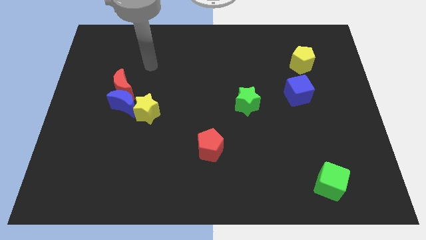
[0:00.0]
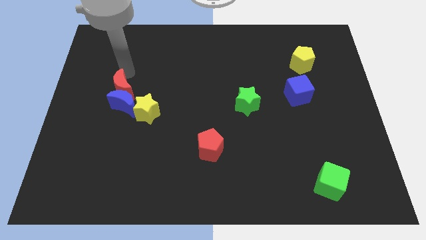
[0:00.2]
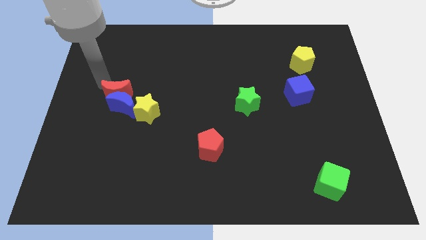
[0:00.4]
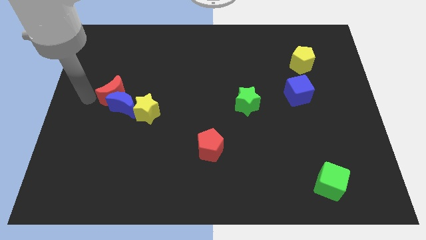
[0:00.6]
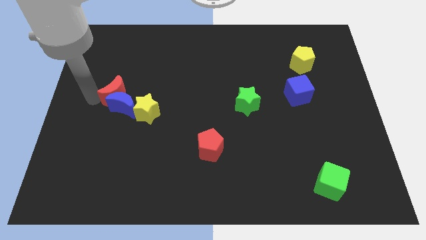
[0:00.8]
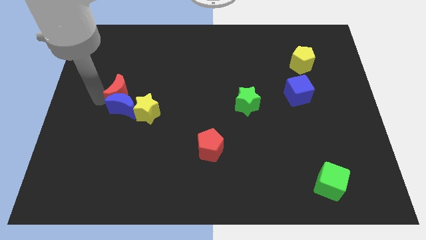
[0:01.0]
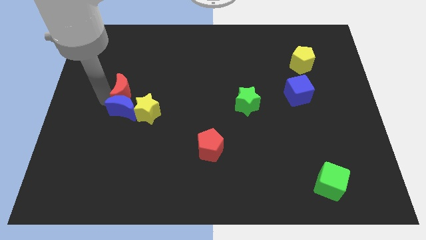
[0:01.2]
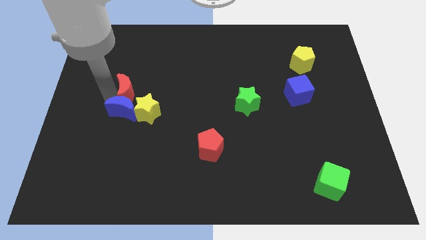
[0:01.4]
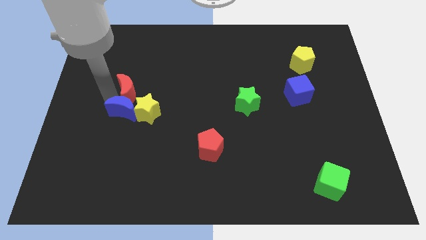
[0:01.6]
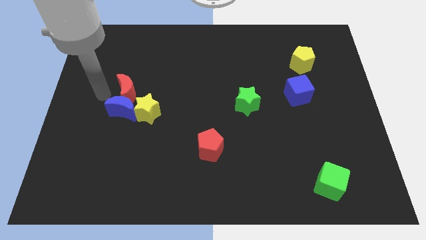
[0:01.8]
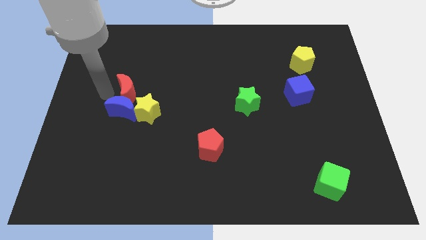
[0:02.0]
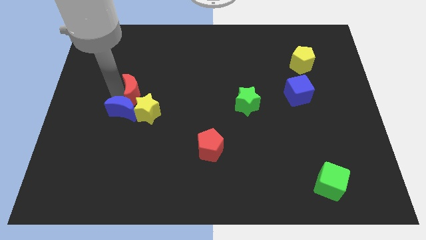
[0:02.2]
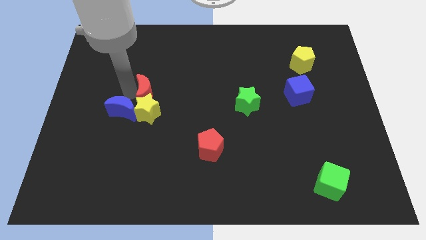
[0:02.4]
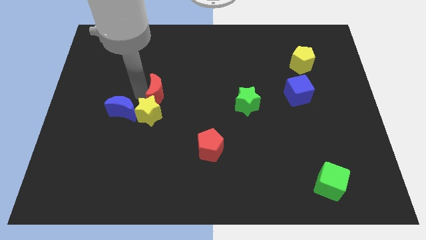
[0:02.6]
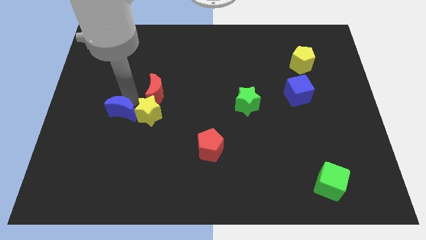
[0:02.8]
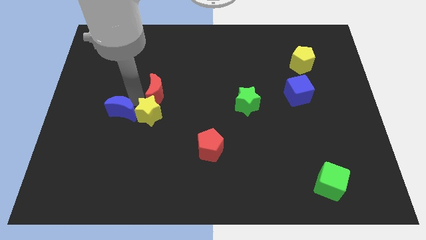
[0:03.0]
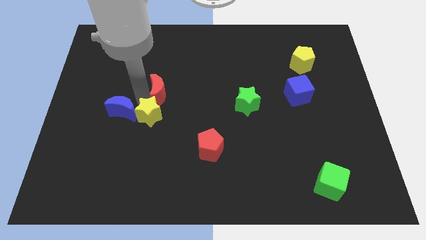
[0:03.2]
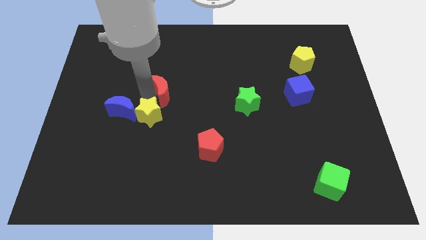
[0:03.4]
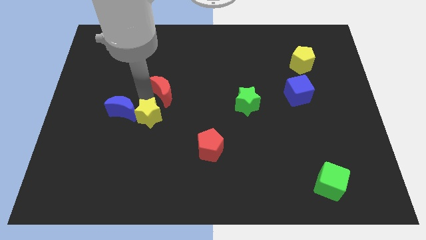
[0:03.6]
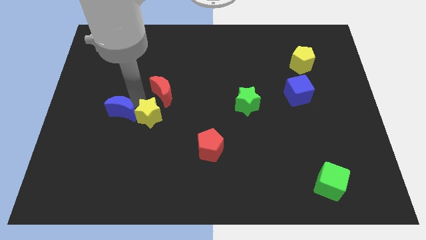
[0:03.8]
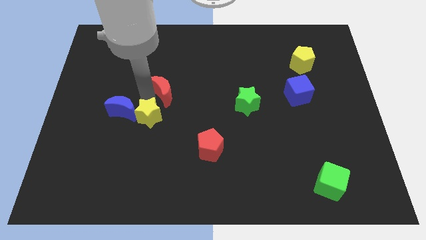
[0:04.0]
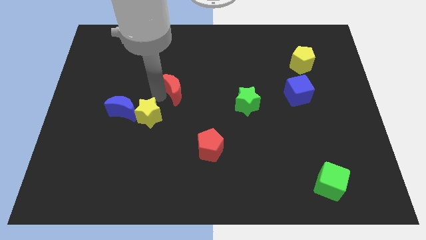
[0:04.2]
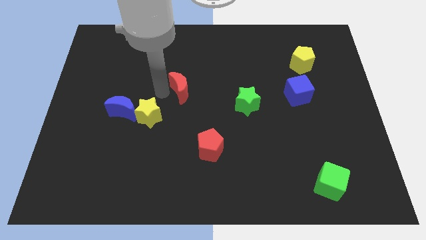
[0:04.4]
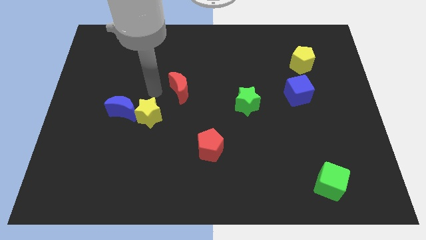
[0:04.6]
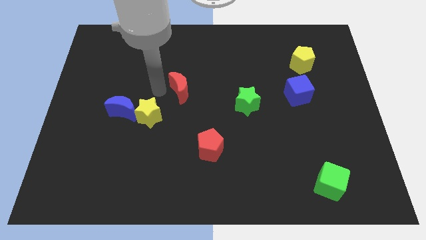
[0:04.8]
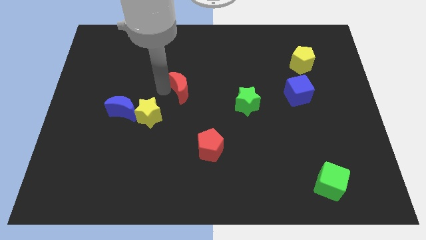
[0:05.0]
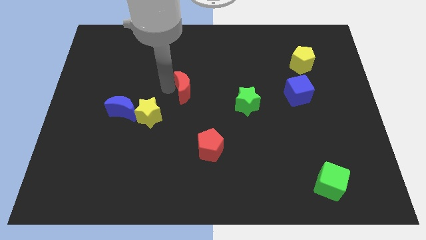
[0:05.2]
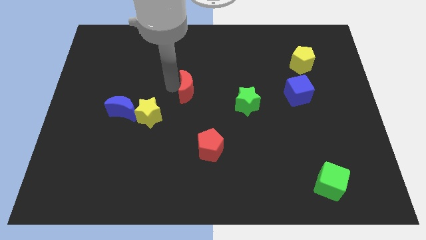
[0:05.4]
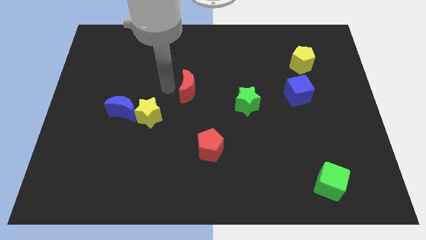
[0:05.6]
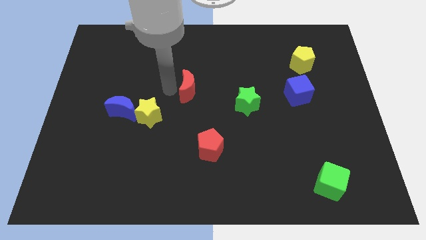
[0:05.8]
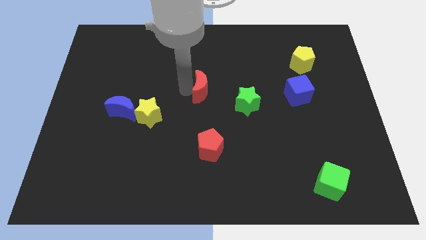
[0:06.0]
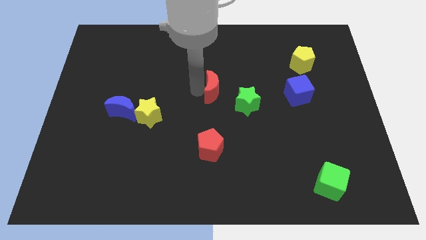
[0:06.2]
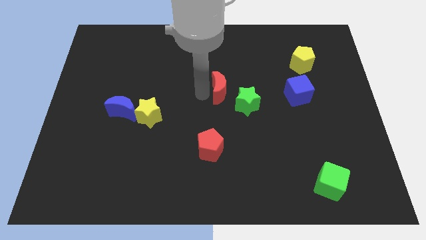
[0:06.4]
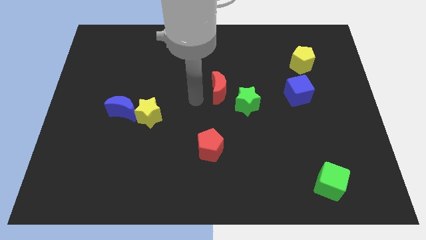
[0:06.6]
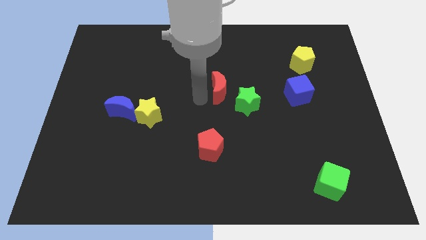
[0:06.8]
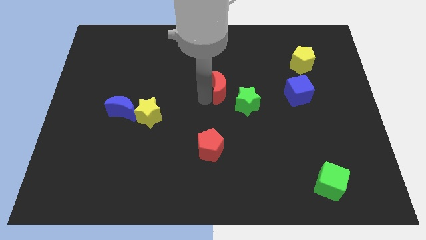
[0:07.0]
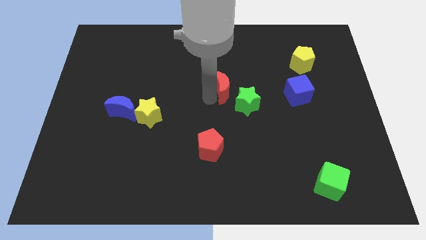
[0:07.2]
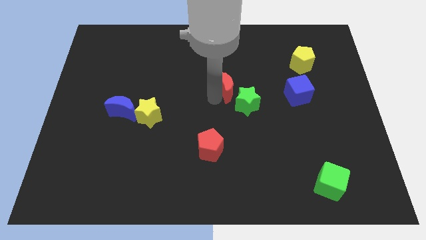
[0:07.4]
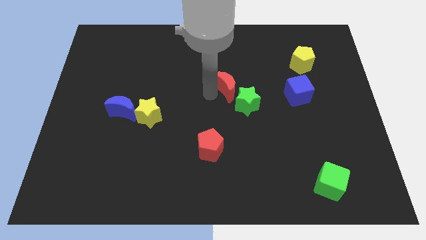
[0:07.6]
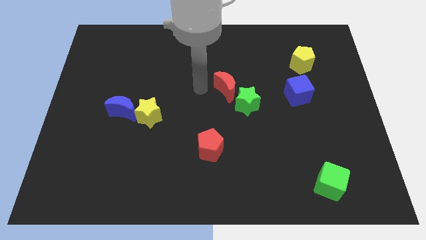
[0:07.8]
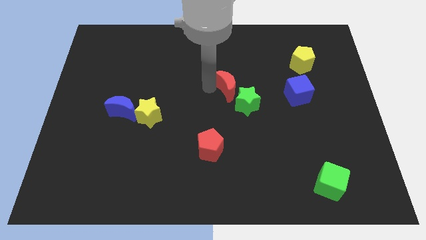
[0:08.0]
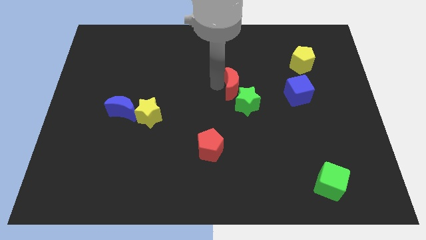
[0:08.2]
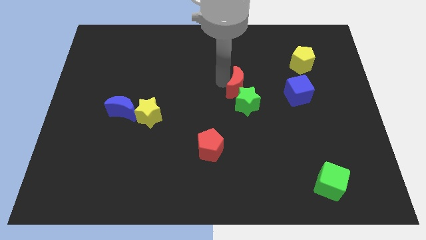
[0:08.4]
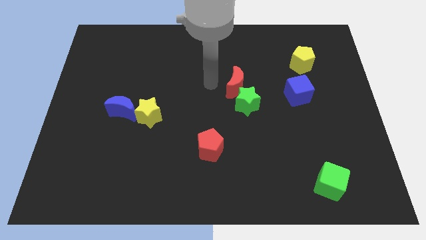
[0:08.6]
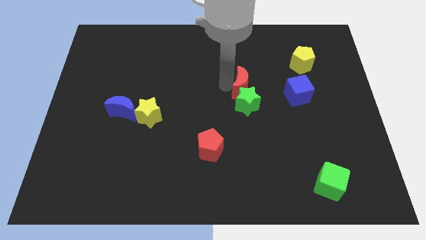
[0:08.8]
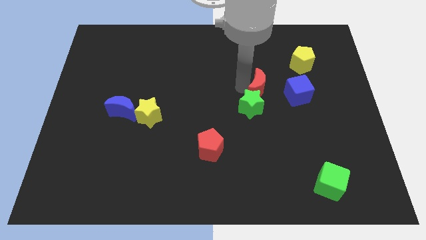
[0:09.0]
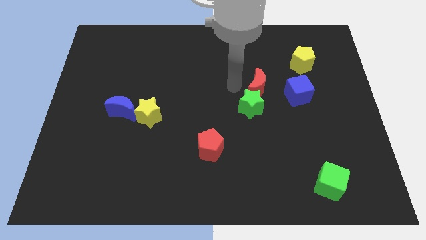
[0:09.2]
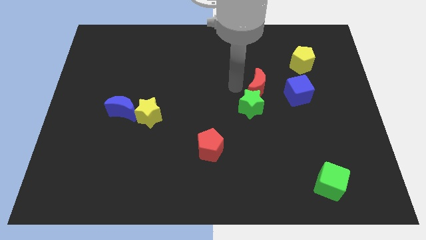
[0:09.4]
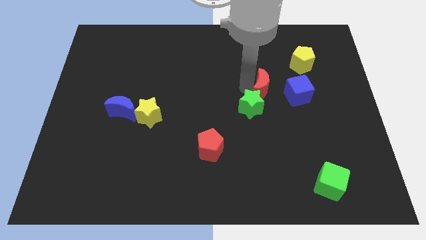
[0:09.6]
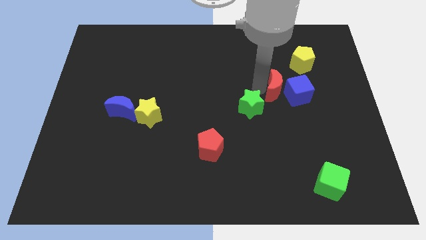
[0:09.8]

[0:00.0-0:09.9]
push the red moon to the blue cube

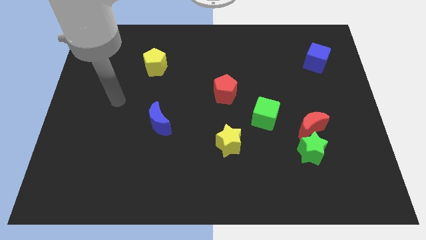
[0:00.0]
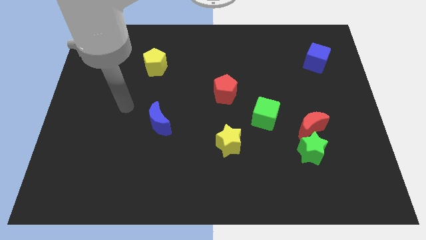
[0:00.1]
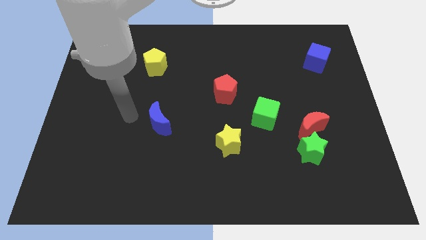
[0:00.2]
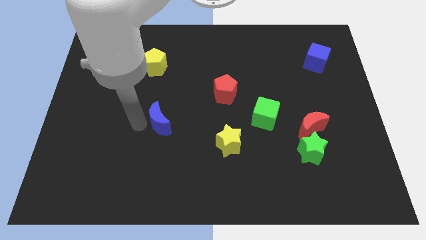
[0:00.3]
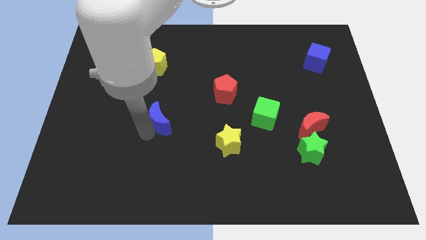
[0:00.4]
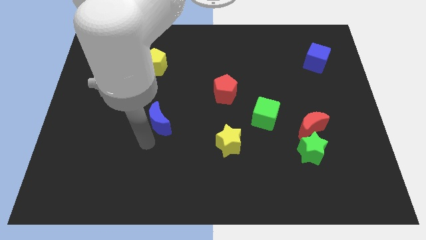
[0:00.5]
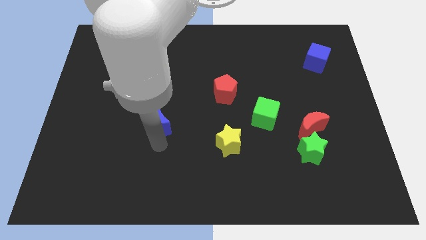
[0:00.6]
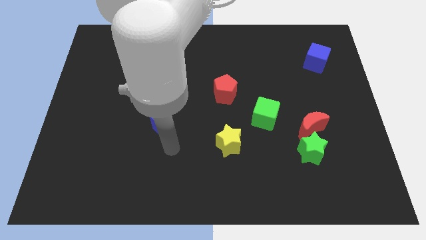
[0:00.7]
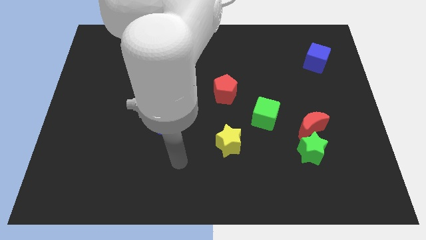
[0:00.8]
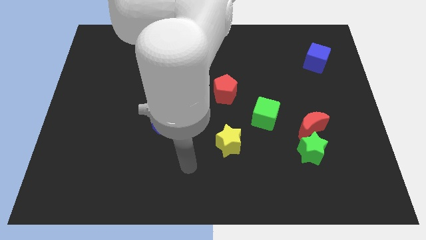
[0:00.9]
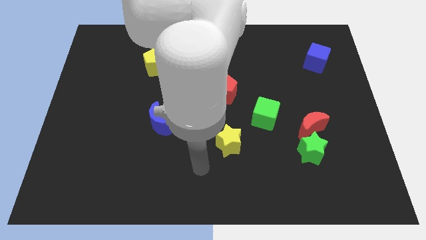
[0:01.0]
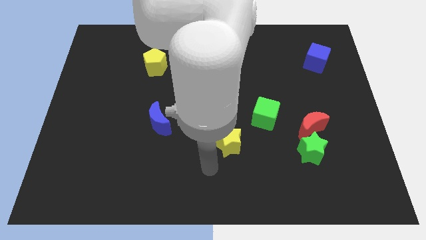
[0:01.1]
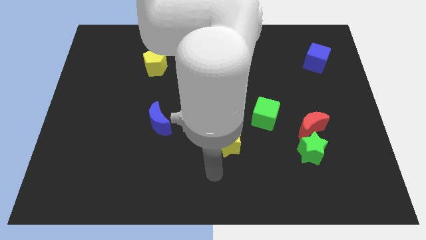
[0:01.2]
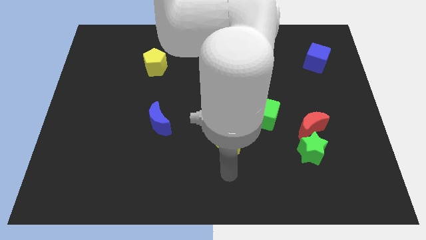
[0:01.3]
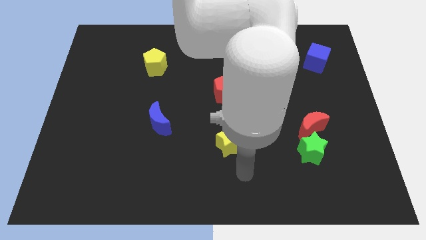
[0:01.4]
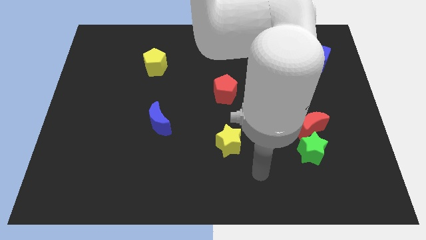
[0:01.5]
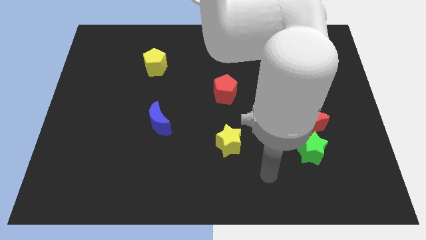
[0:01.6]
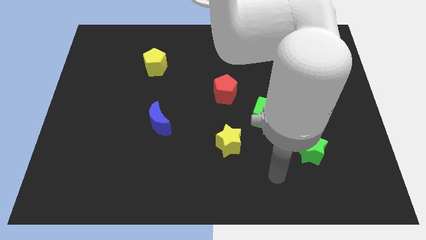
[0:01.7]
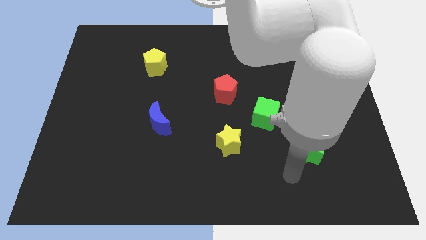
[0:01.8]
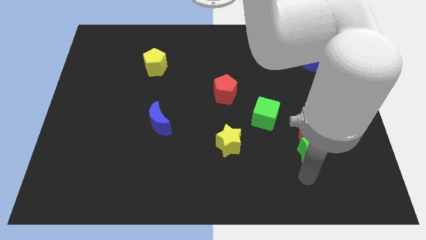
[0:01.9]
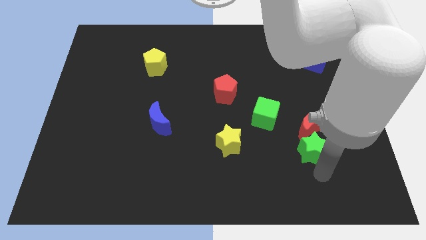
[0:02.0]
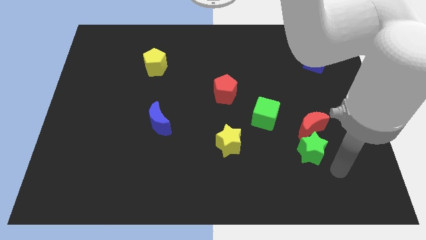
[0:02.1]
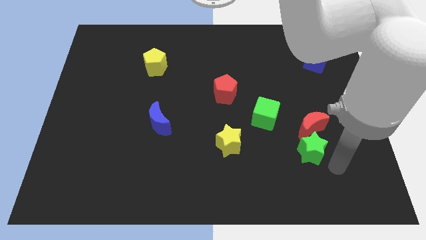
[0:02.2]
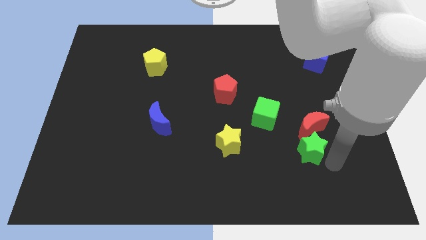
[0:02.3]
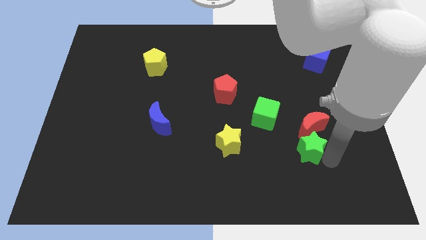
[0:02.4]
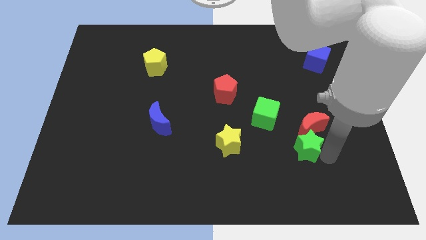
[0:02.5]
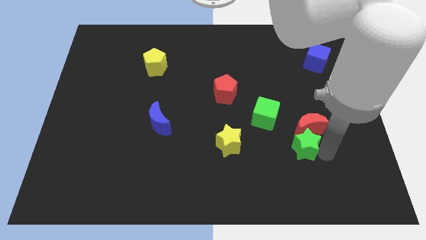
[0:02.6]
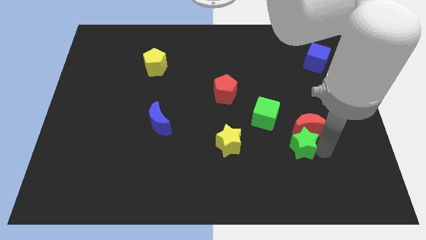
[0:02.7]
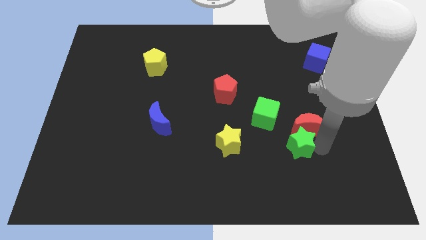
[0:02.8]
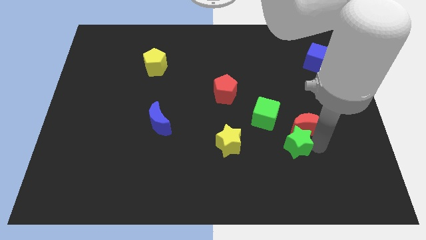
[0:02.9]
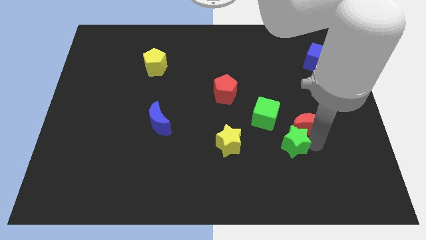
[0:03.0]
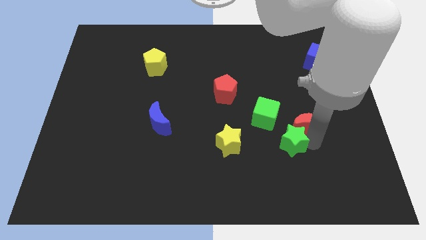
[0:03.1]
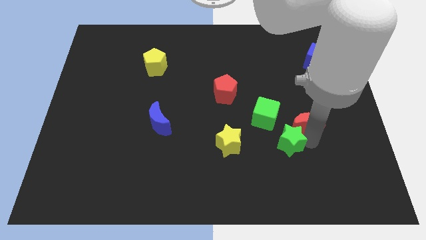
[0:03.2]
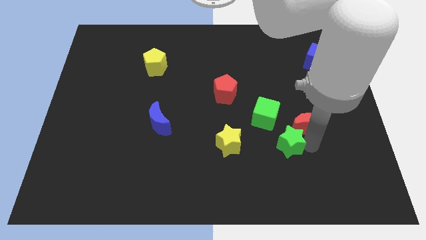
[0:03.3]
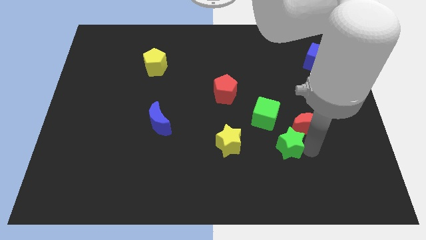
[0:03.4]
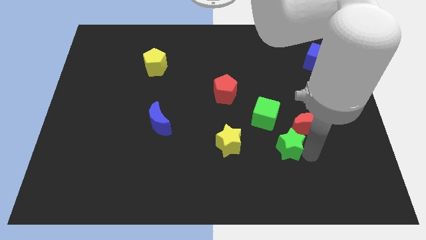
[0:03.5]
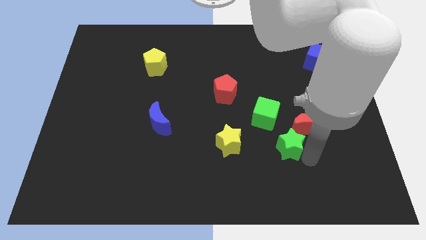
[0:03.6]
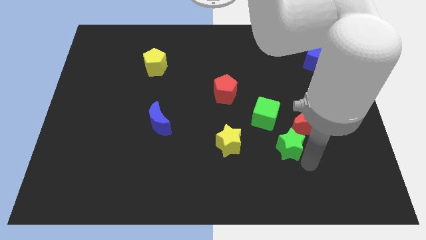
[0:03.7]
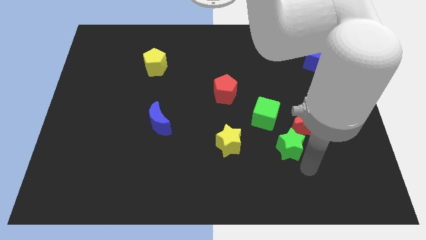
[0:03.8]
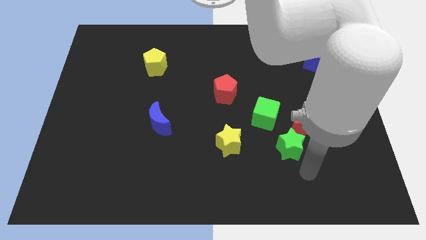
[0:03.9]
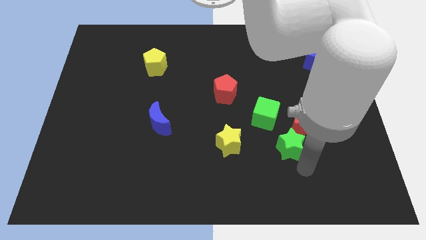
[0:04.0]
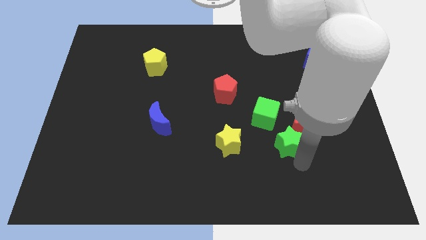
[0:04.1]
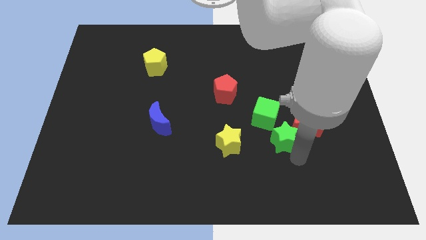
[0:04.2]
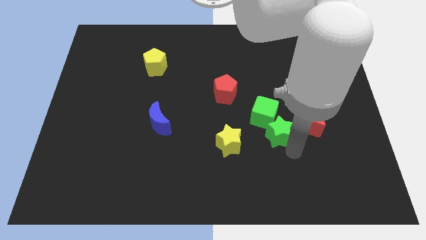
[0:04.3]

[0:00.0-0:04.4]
put the green star next to the green cube
